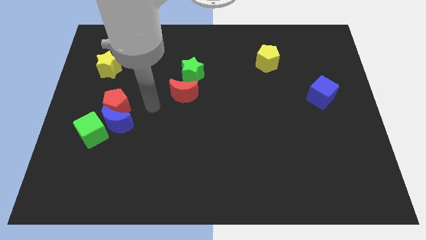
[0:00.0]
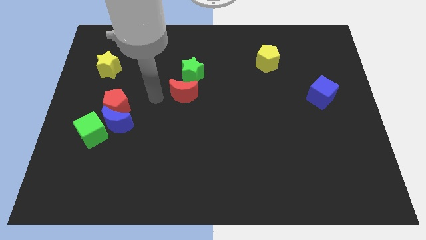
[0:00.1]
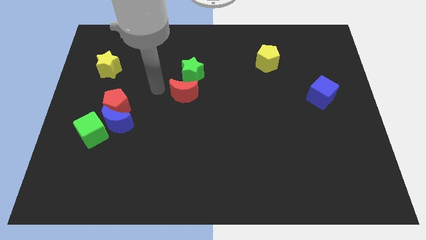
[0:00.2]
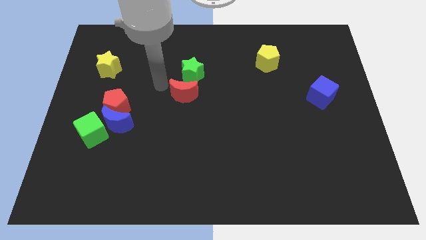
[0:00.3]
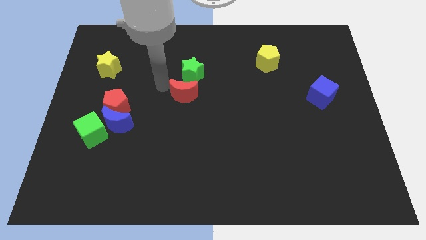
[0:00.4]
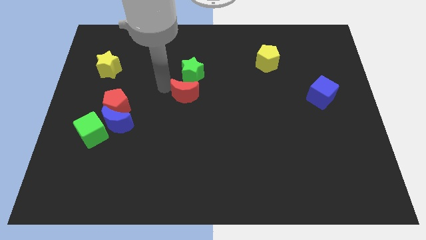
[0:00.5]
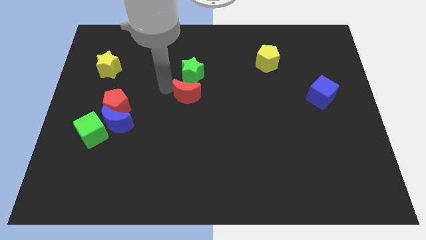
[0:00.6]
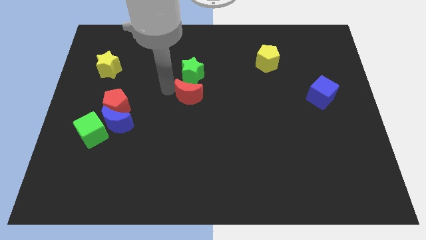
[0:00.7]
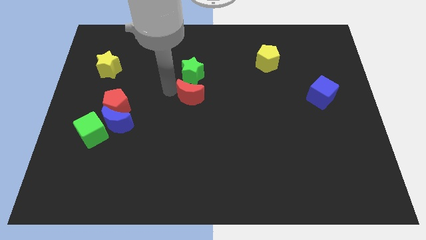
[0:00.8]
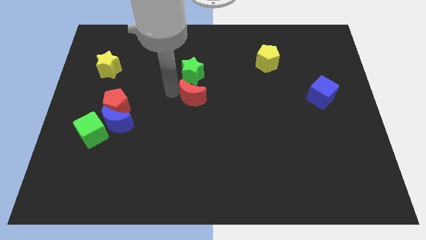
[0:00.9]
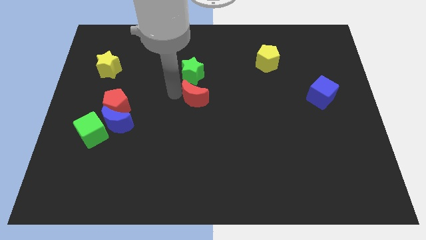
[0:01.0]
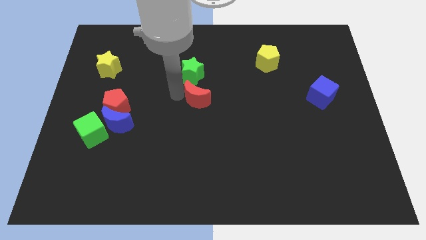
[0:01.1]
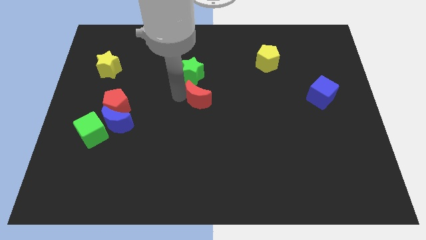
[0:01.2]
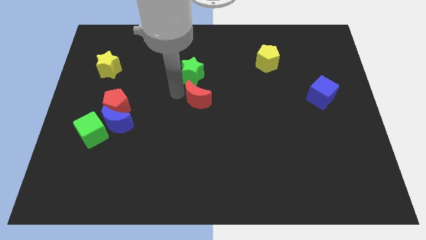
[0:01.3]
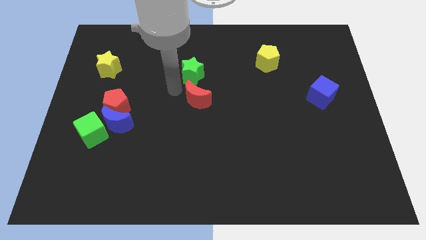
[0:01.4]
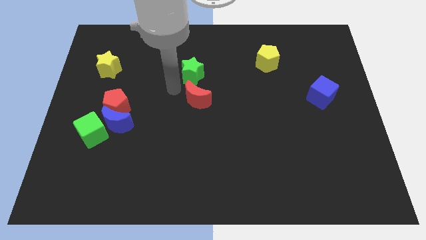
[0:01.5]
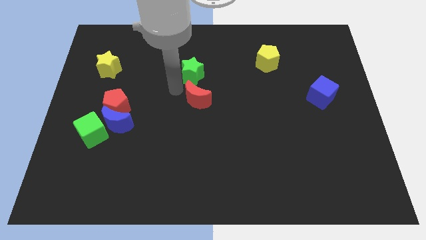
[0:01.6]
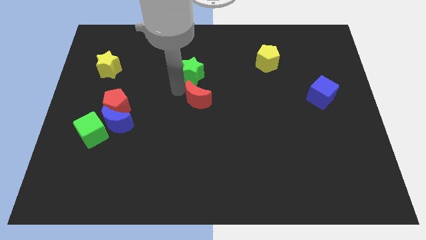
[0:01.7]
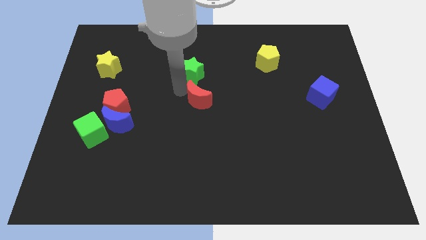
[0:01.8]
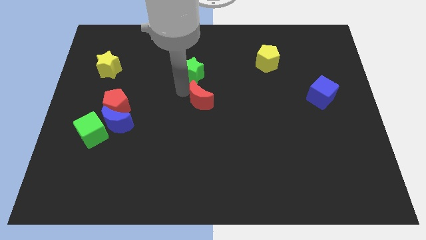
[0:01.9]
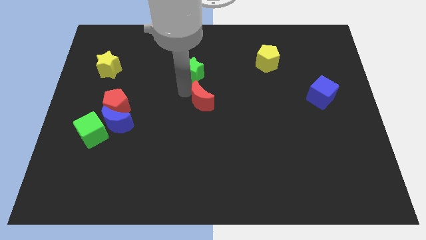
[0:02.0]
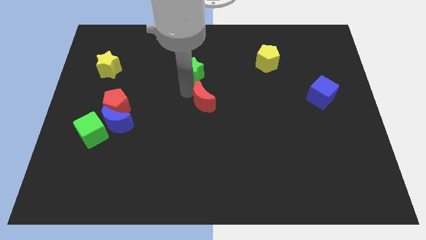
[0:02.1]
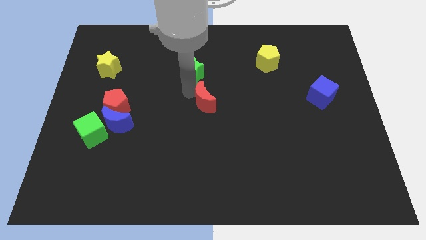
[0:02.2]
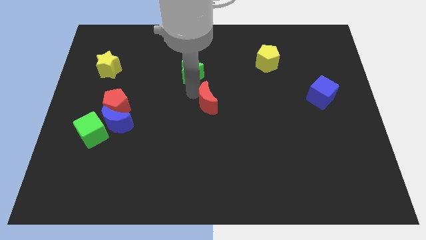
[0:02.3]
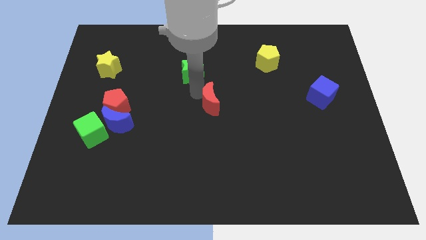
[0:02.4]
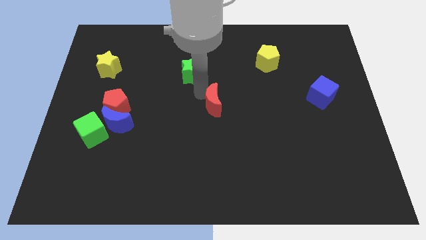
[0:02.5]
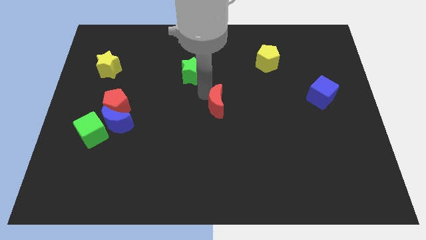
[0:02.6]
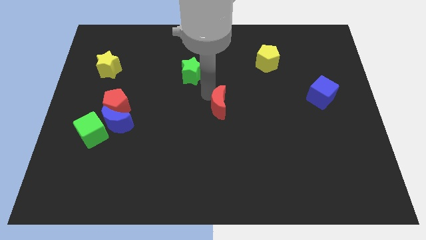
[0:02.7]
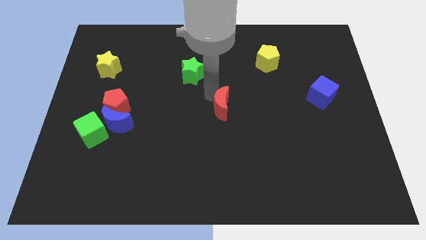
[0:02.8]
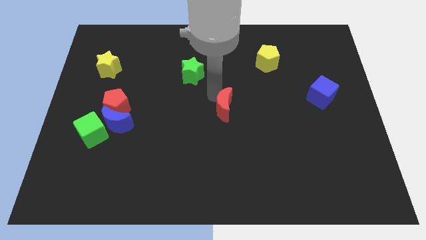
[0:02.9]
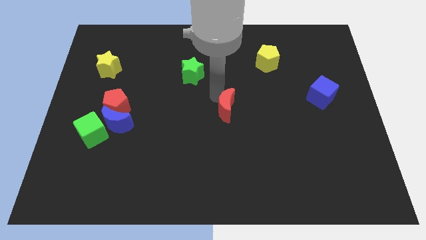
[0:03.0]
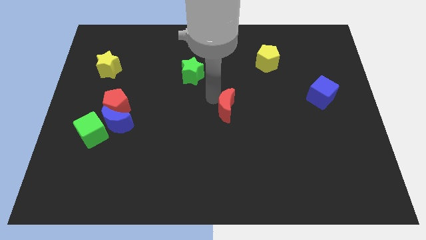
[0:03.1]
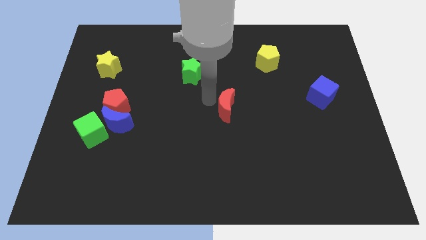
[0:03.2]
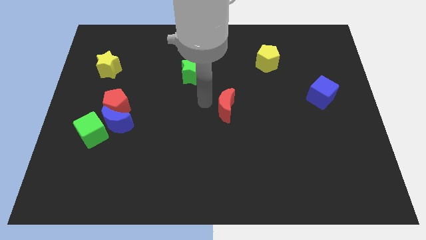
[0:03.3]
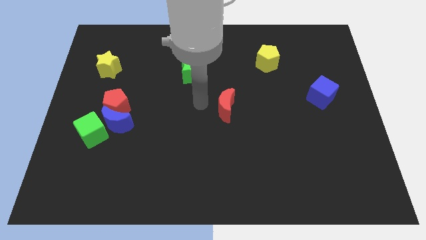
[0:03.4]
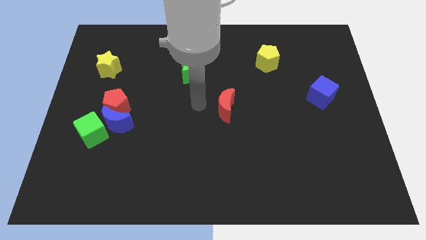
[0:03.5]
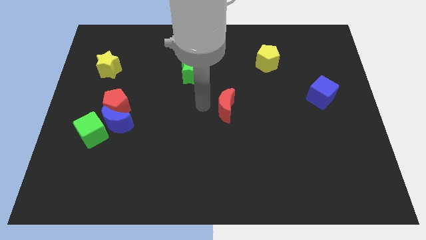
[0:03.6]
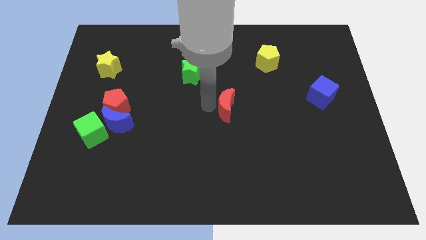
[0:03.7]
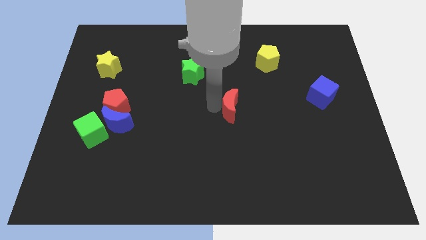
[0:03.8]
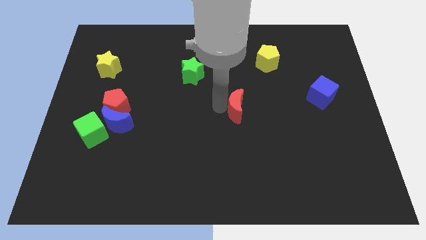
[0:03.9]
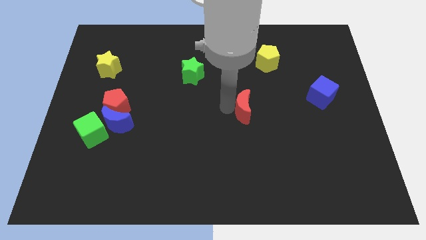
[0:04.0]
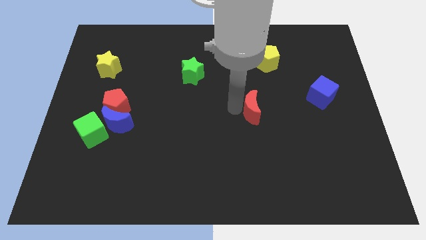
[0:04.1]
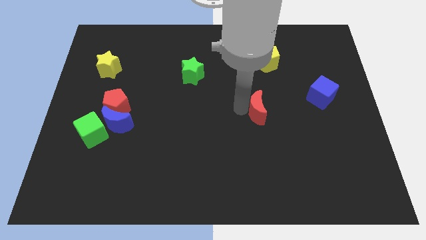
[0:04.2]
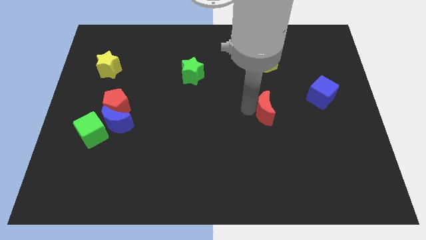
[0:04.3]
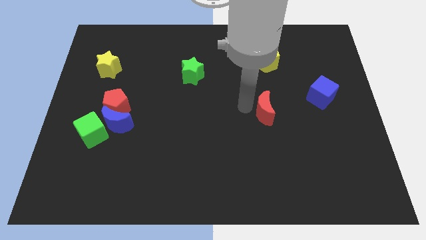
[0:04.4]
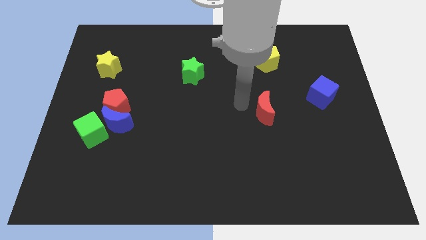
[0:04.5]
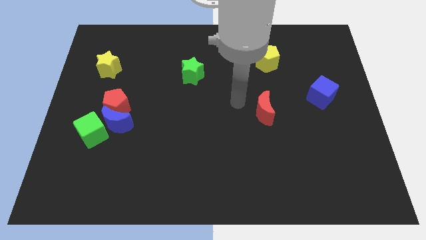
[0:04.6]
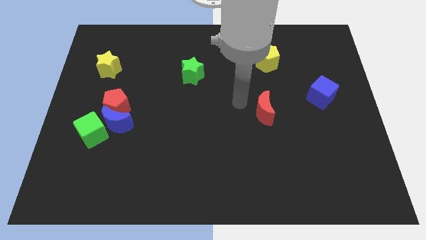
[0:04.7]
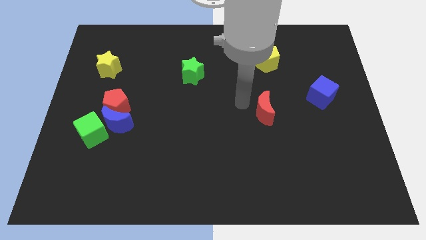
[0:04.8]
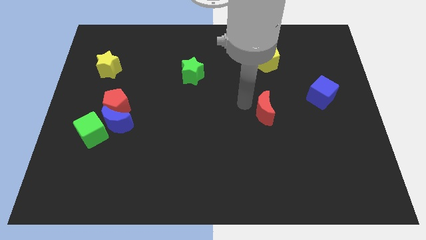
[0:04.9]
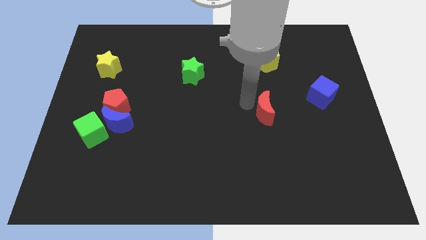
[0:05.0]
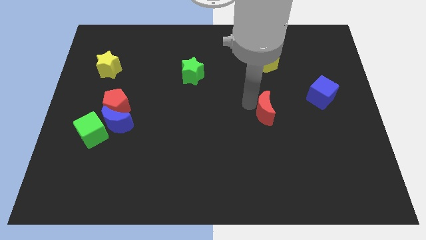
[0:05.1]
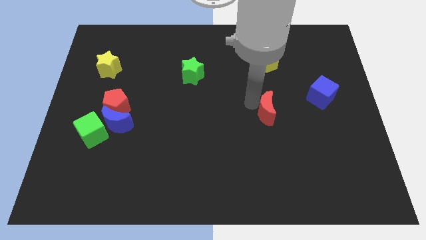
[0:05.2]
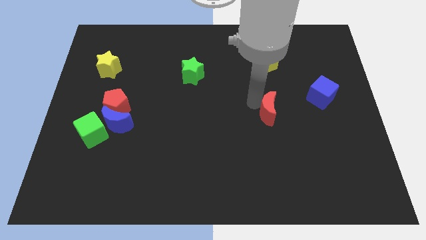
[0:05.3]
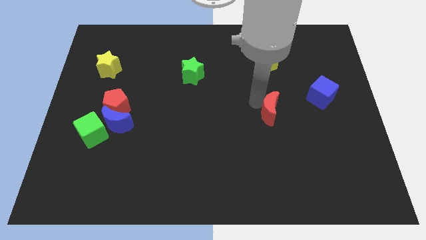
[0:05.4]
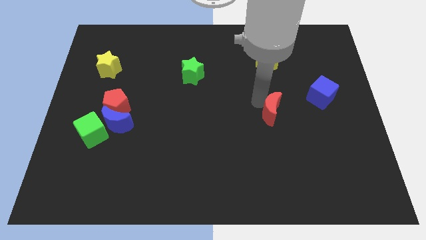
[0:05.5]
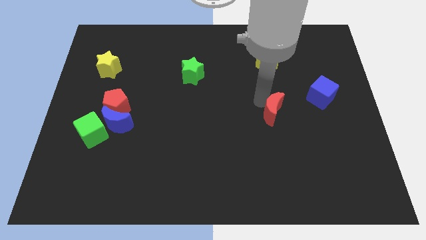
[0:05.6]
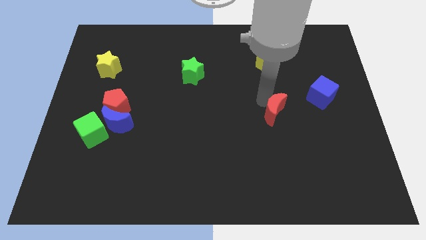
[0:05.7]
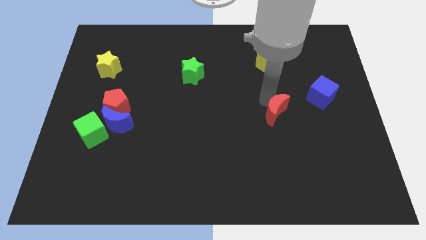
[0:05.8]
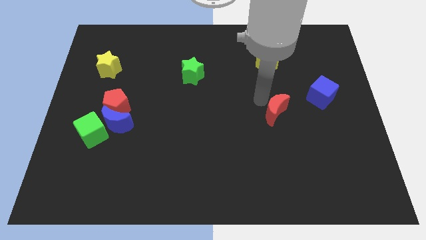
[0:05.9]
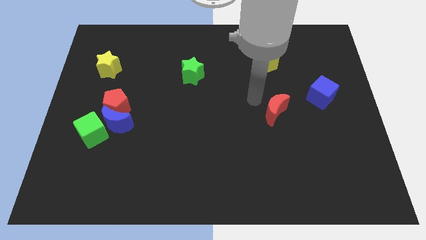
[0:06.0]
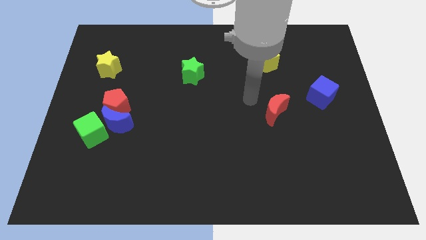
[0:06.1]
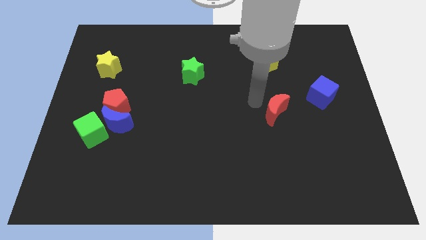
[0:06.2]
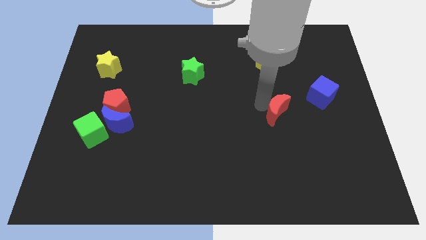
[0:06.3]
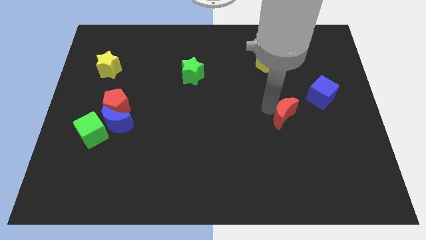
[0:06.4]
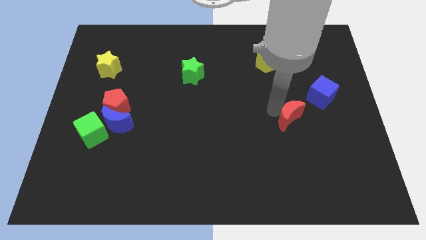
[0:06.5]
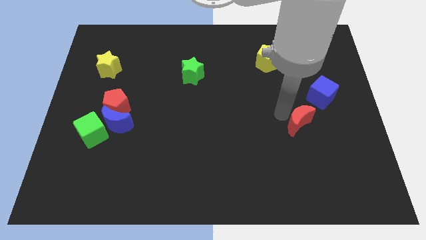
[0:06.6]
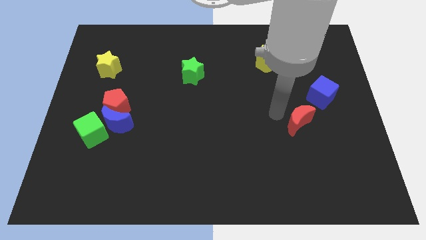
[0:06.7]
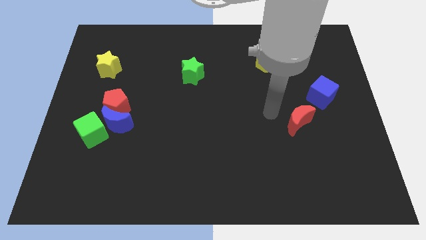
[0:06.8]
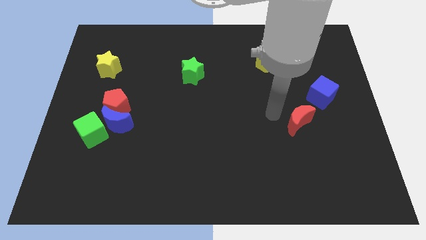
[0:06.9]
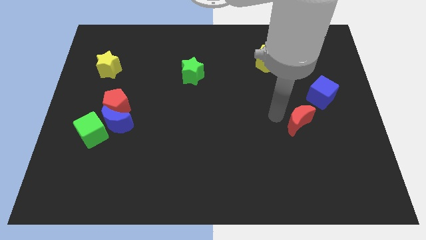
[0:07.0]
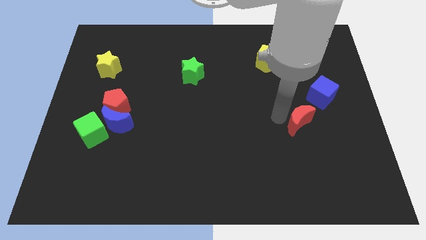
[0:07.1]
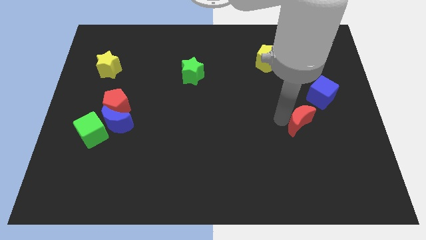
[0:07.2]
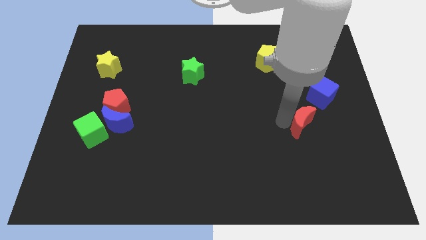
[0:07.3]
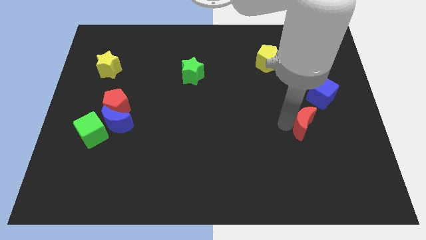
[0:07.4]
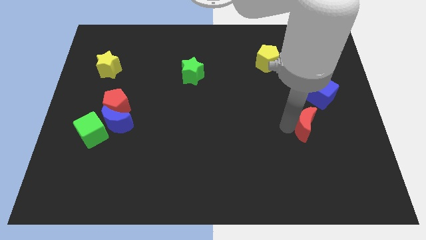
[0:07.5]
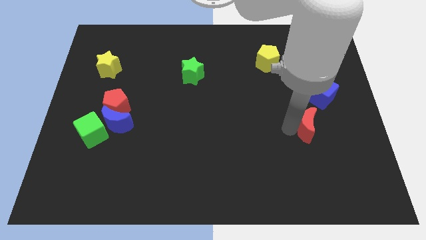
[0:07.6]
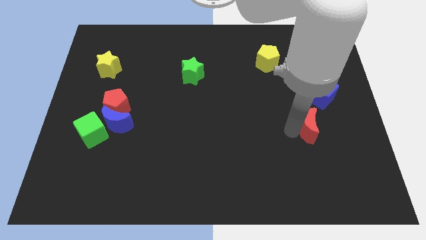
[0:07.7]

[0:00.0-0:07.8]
push the red moon below the blue cube
